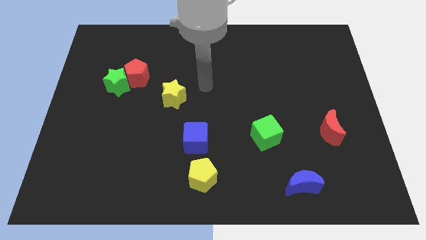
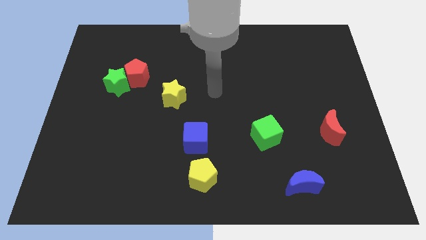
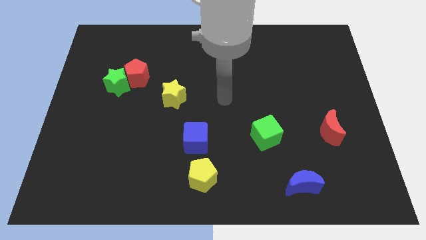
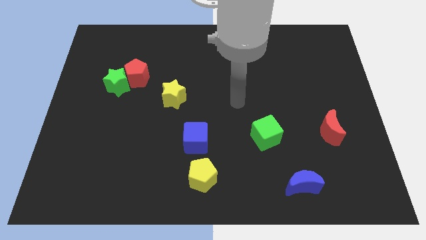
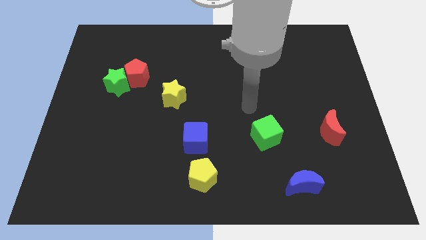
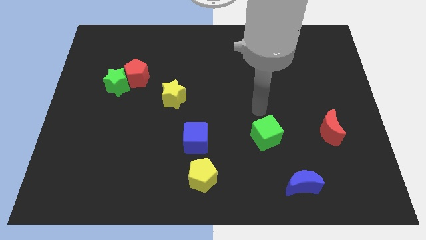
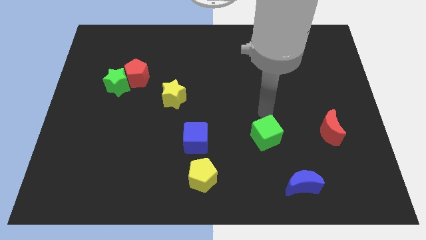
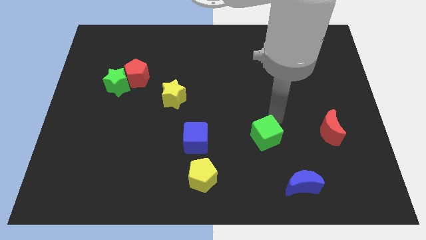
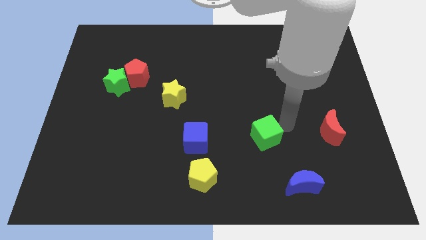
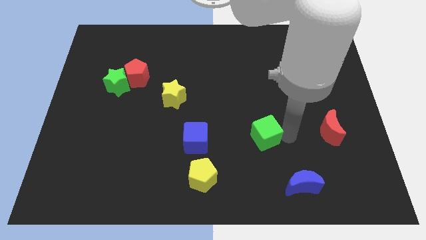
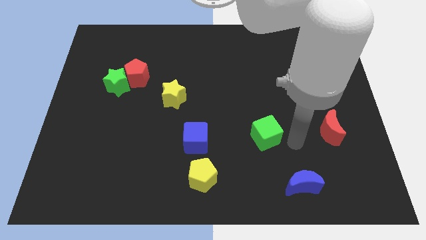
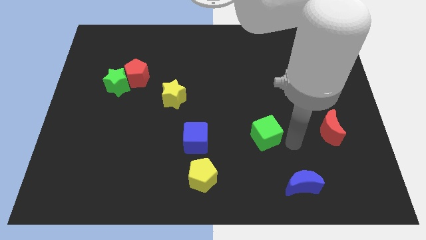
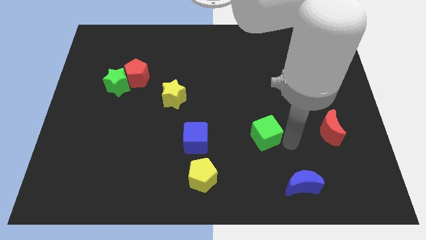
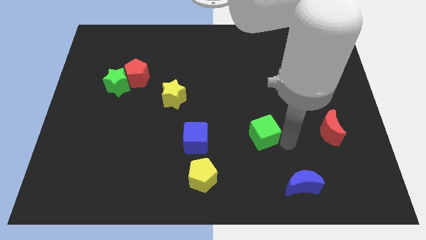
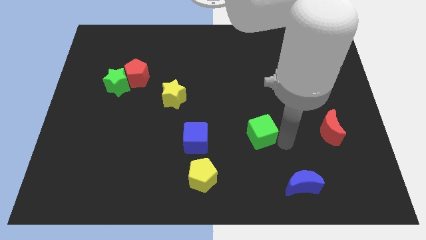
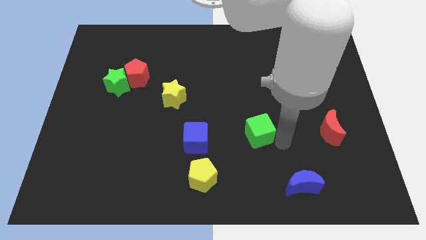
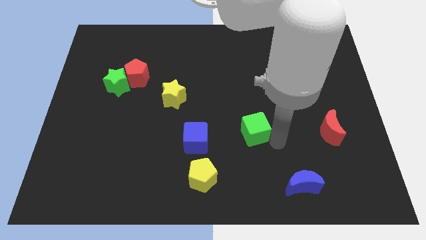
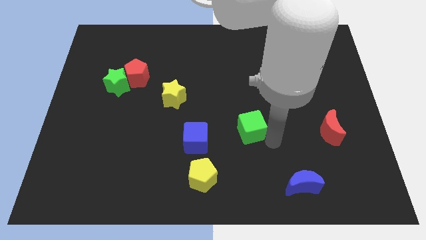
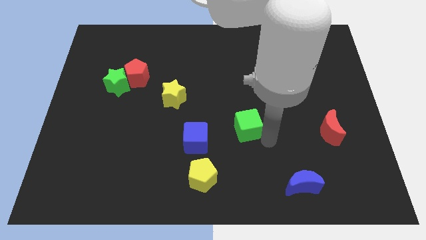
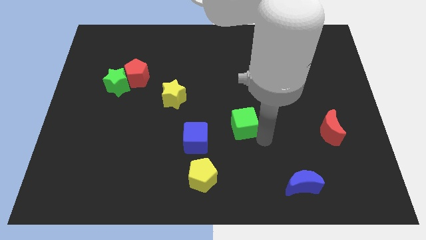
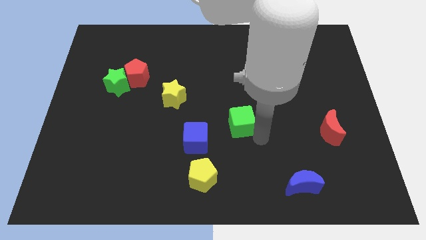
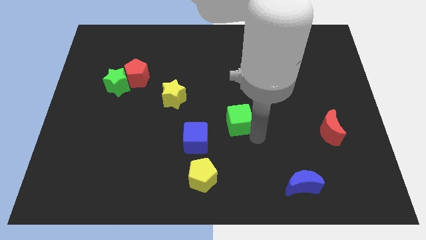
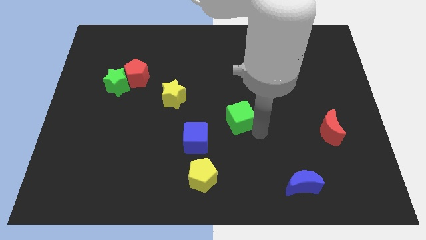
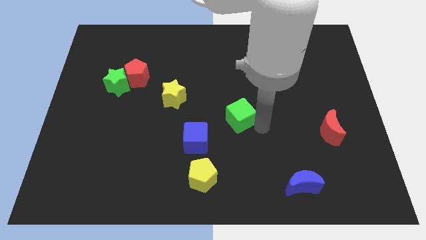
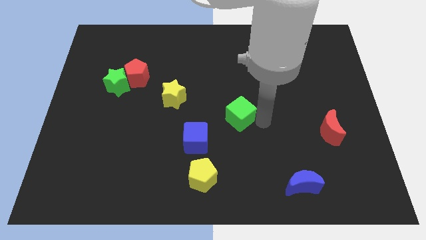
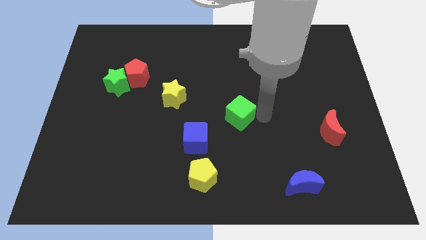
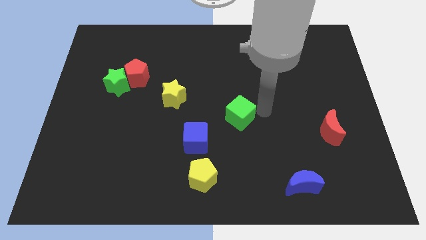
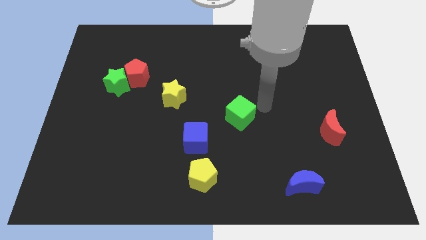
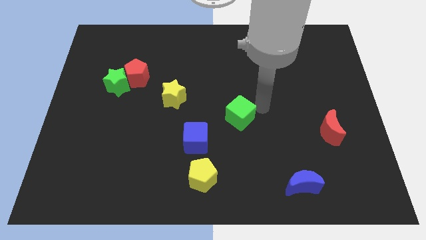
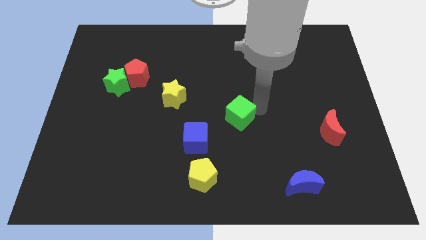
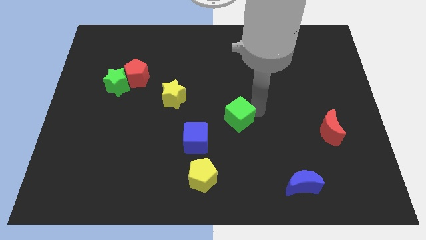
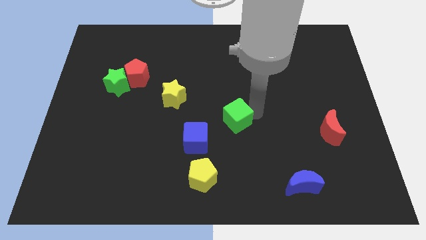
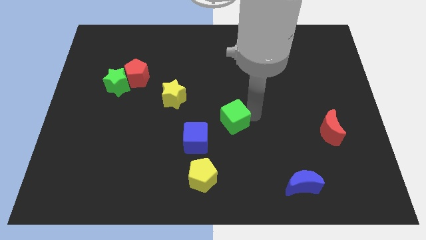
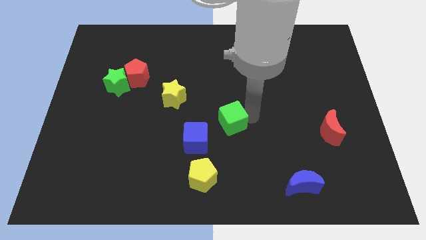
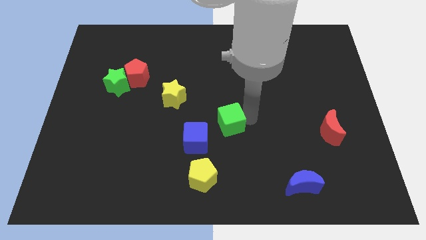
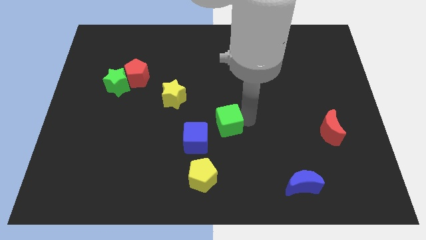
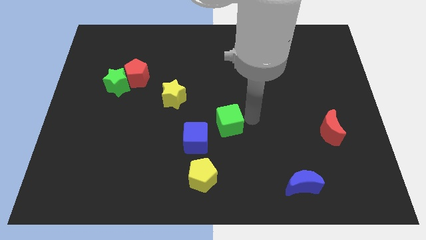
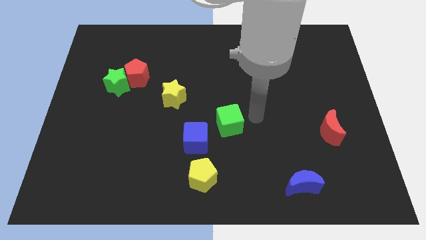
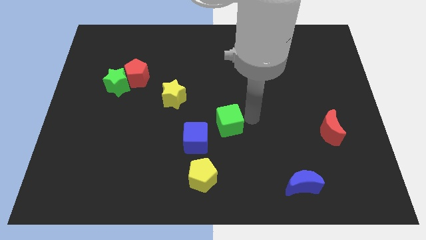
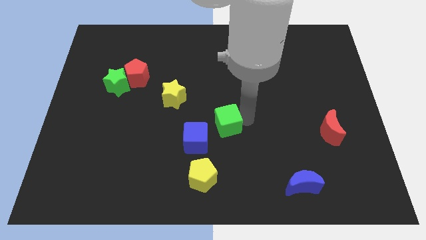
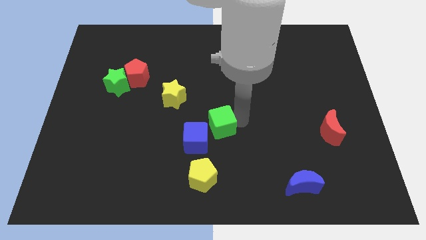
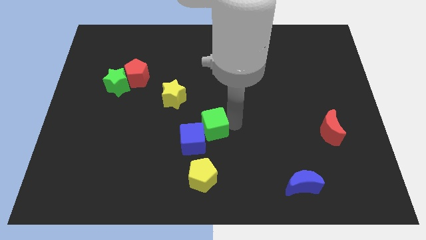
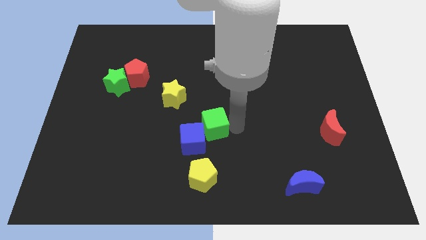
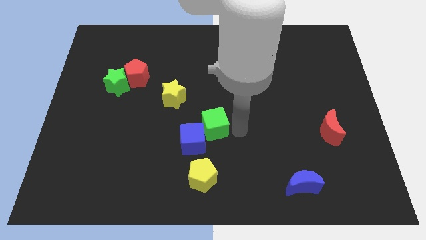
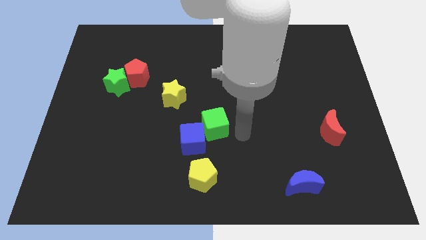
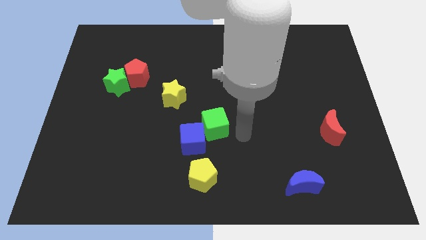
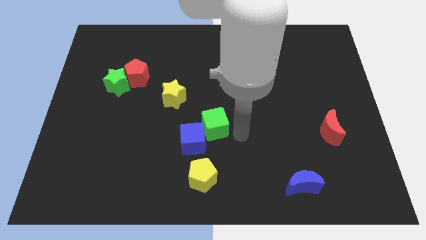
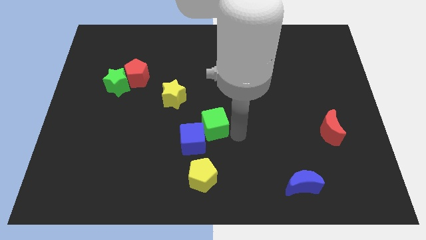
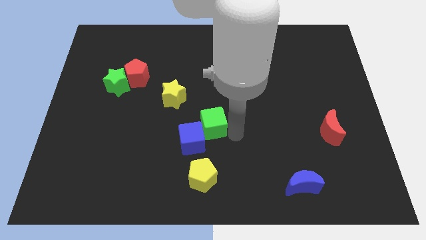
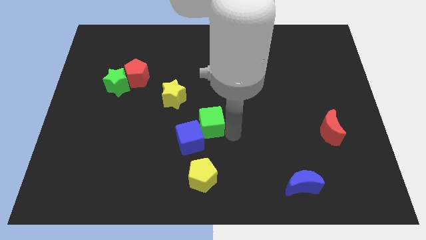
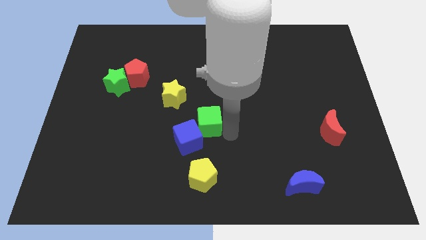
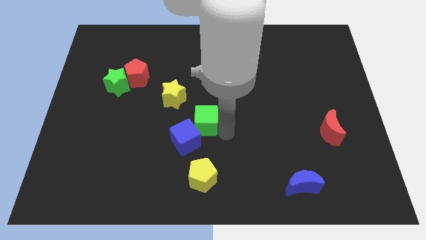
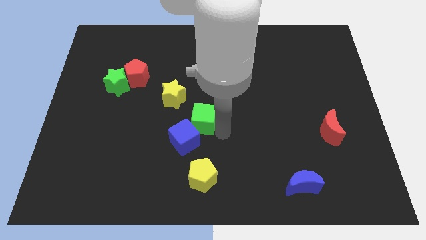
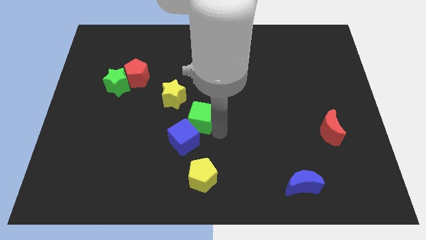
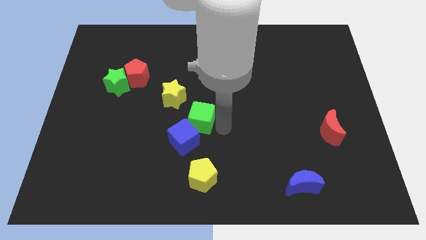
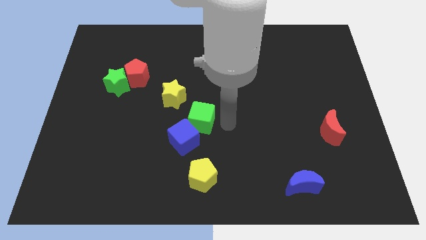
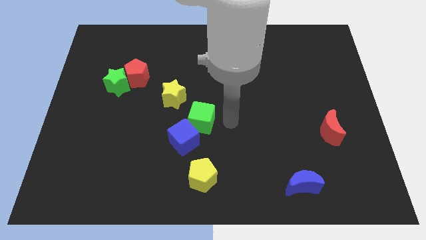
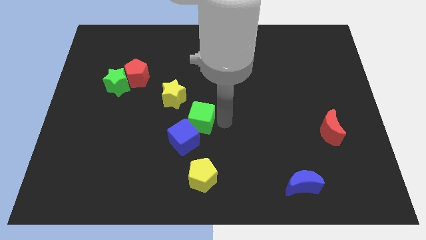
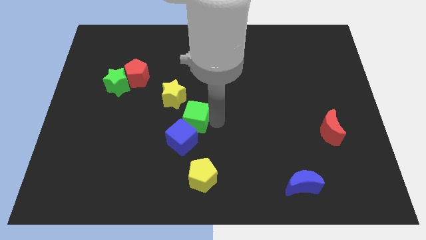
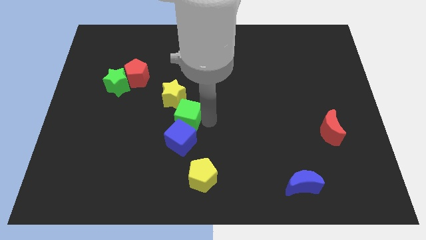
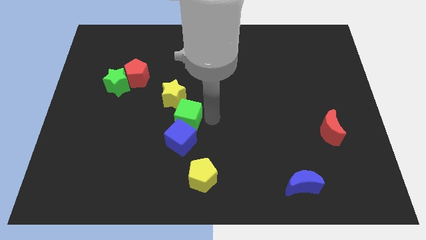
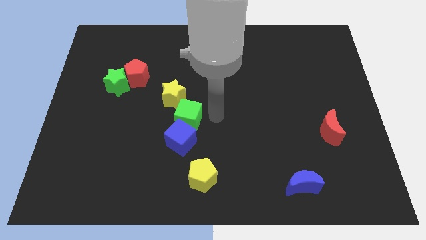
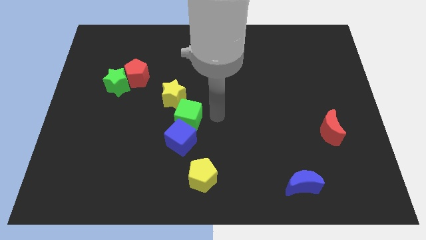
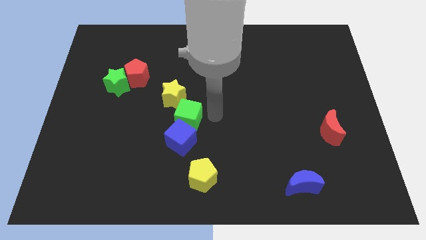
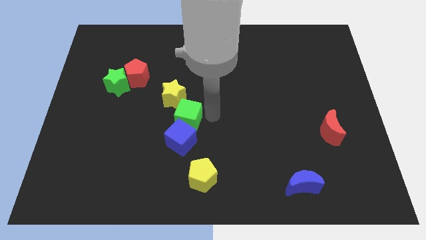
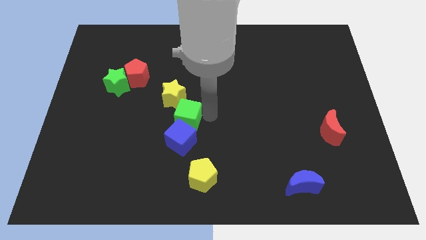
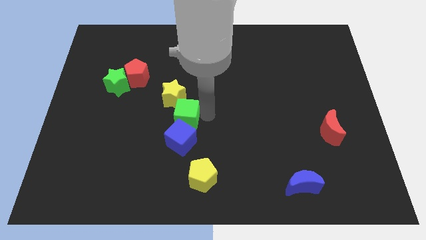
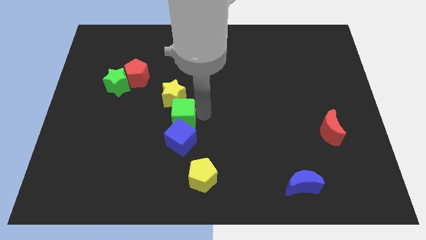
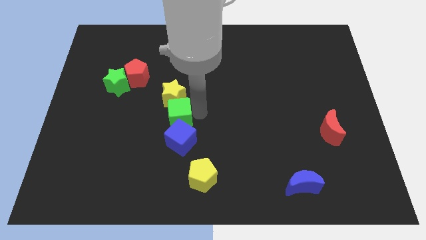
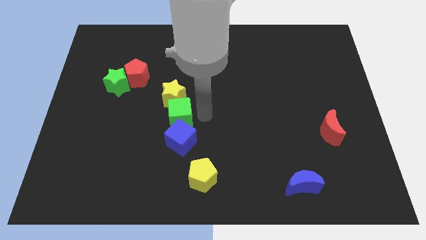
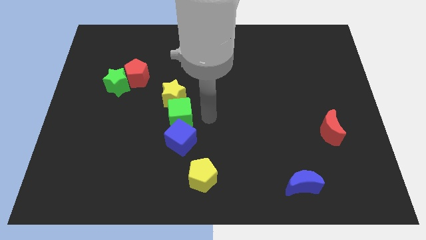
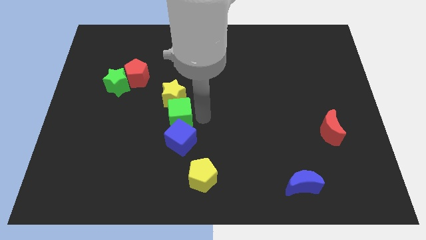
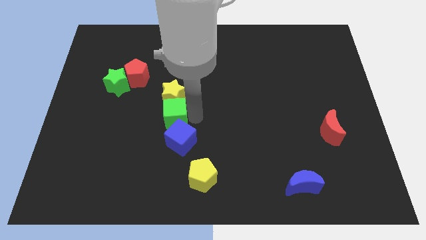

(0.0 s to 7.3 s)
push the green cube to the bottom left side of the yellow star
